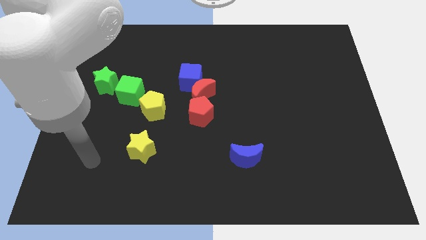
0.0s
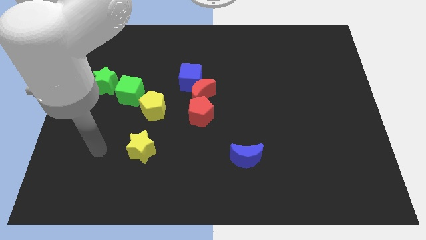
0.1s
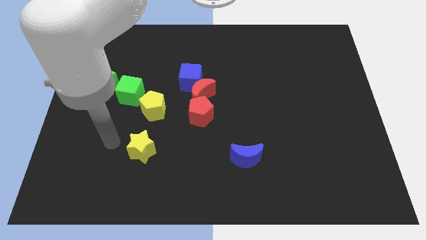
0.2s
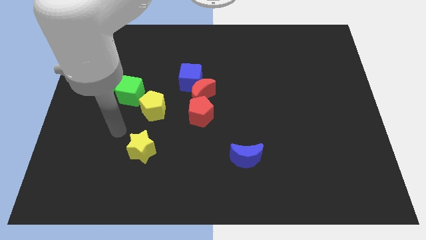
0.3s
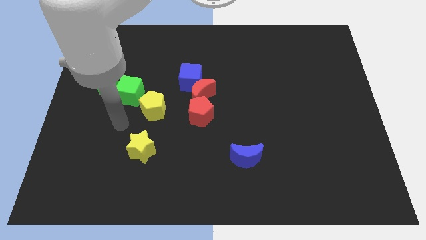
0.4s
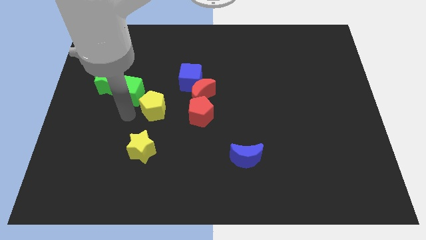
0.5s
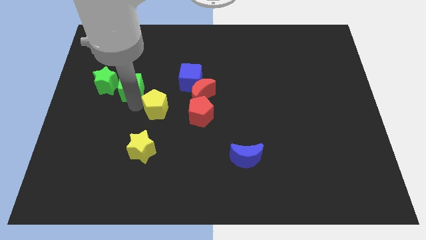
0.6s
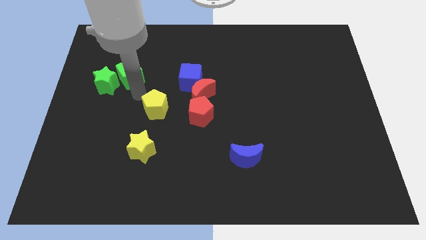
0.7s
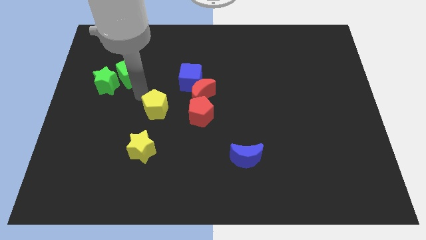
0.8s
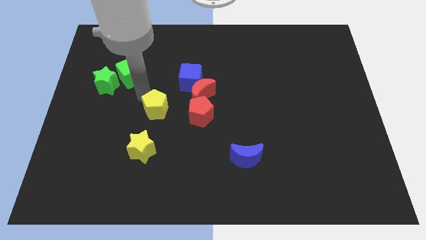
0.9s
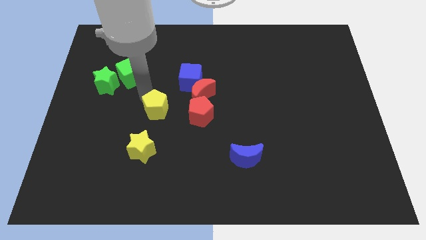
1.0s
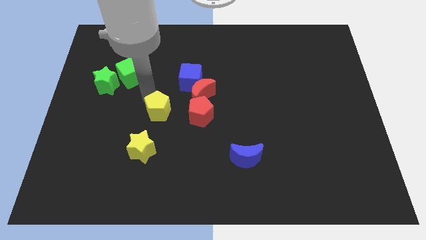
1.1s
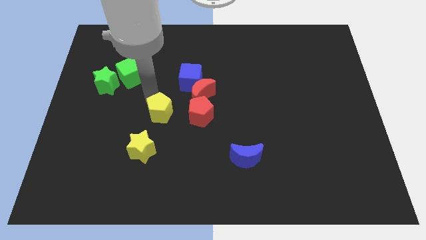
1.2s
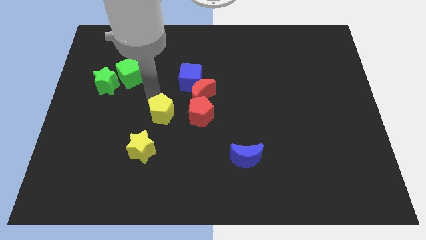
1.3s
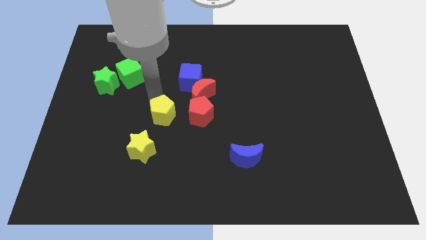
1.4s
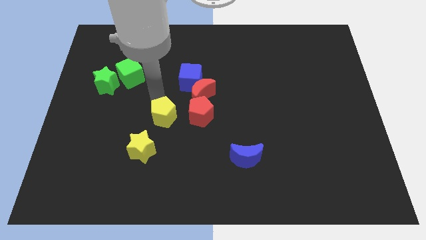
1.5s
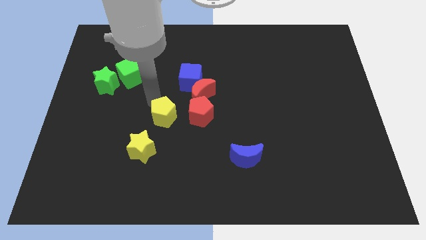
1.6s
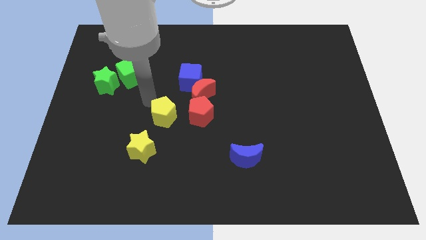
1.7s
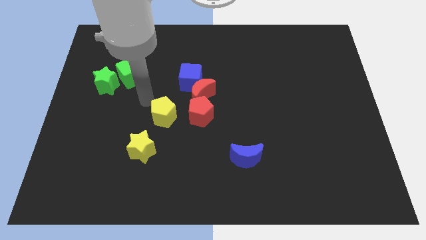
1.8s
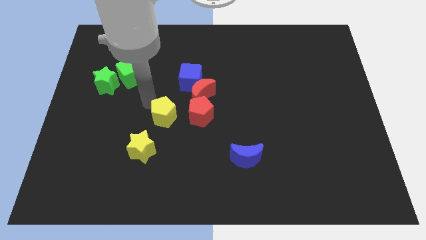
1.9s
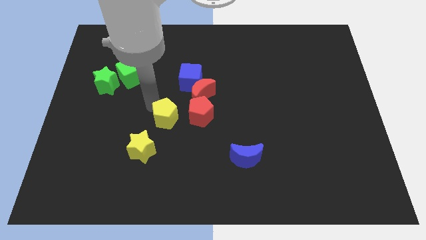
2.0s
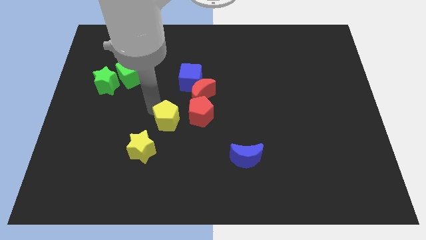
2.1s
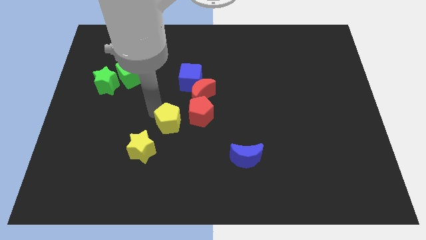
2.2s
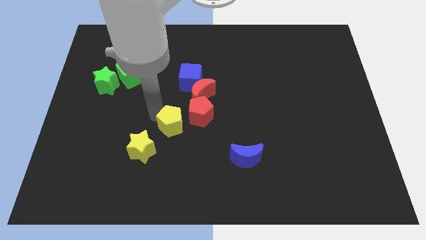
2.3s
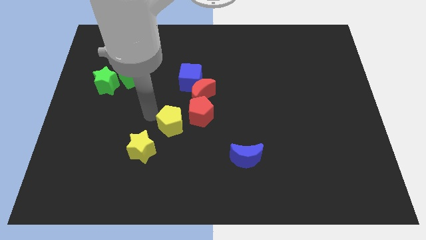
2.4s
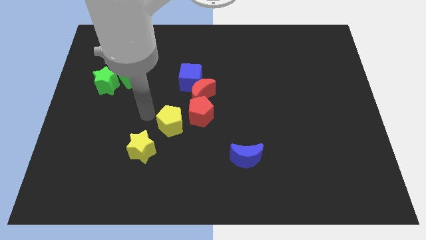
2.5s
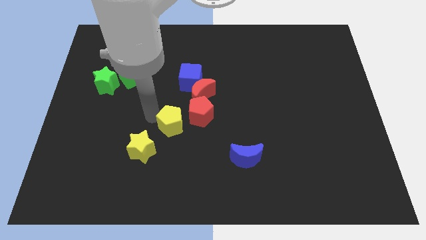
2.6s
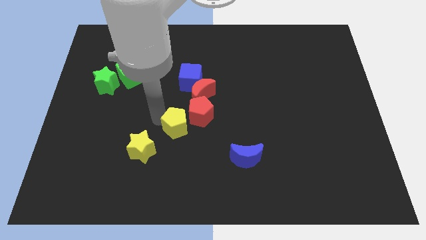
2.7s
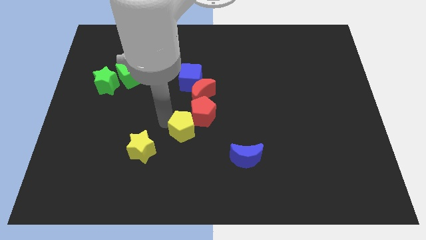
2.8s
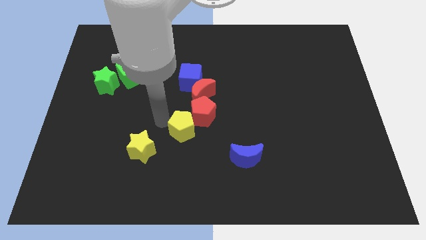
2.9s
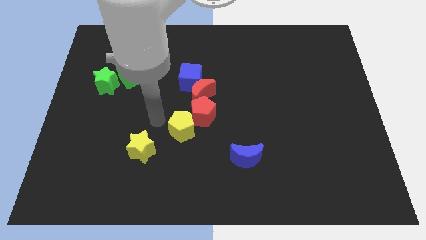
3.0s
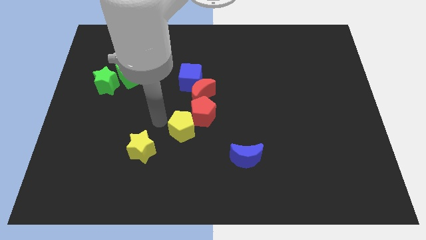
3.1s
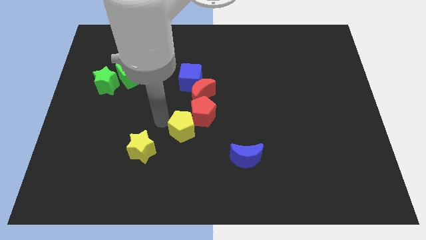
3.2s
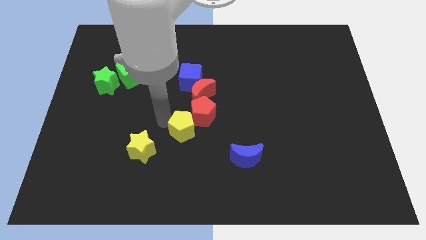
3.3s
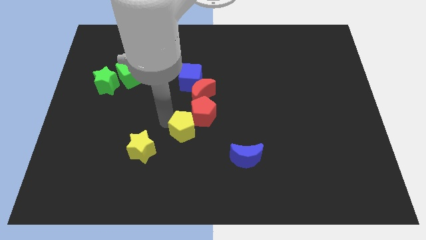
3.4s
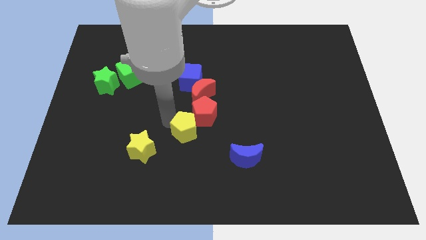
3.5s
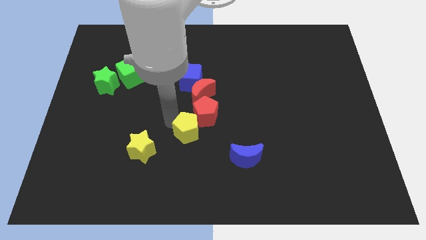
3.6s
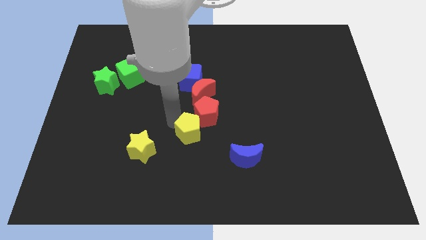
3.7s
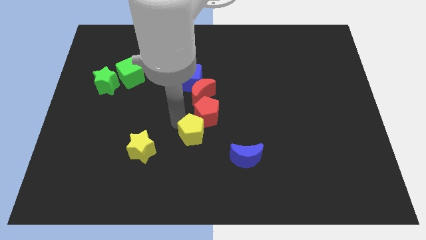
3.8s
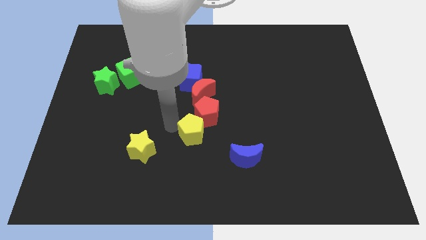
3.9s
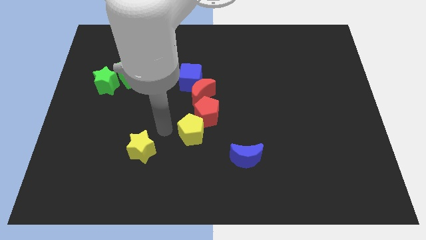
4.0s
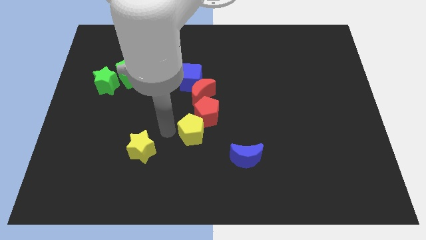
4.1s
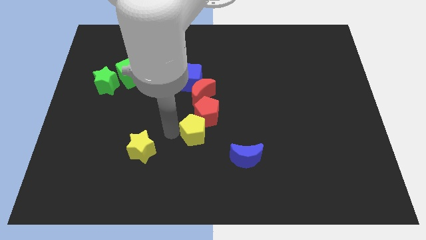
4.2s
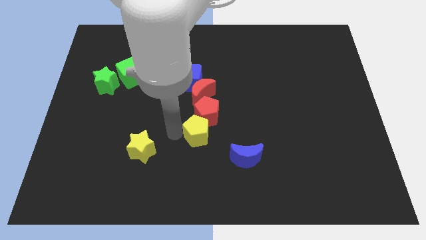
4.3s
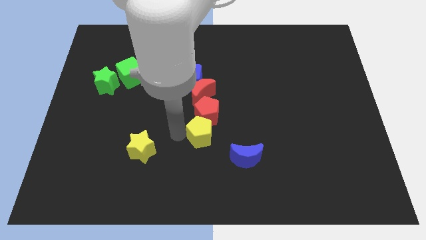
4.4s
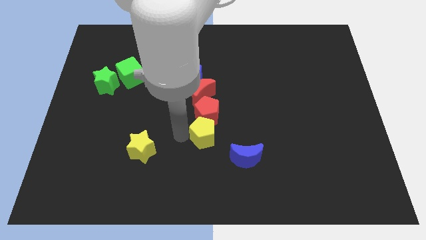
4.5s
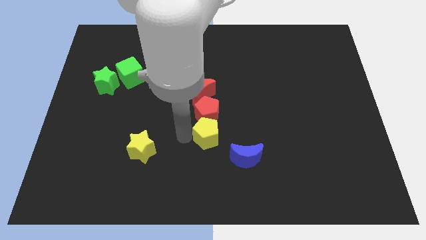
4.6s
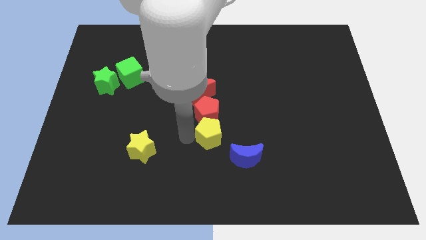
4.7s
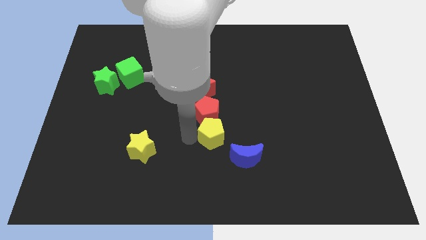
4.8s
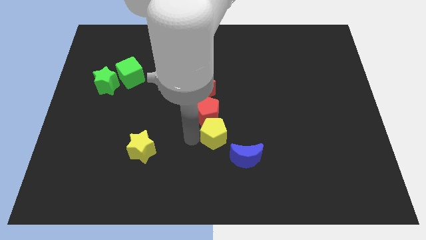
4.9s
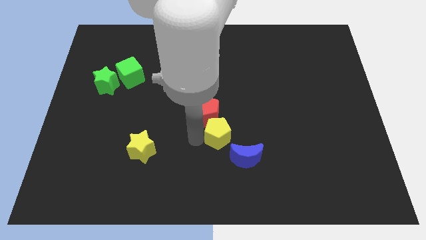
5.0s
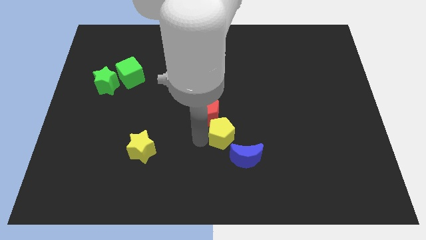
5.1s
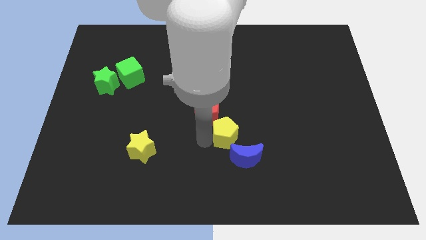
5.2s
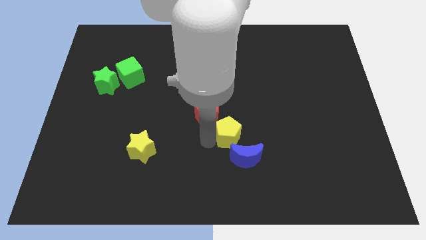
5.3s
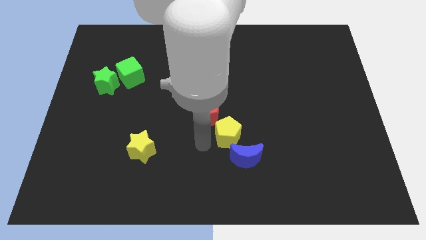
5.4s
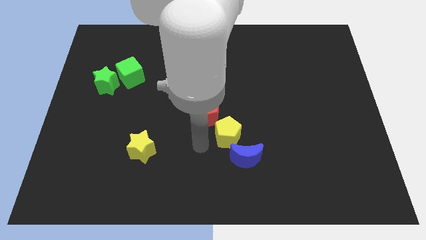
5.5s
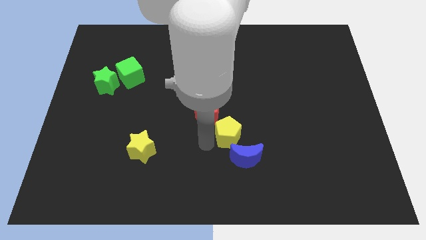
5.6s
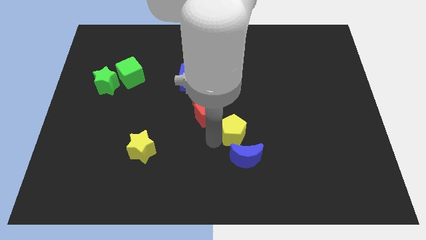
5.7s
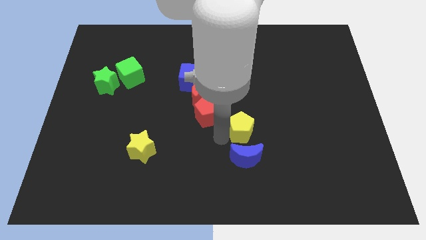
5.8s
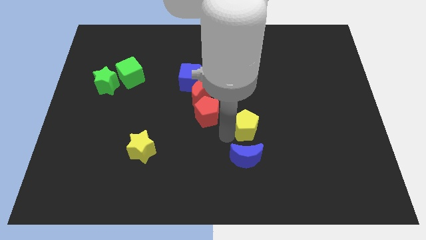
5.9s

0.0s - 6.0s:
push the yellow pentagon to the right

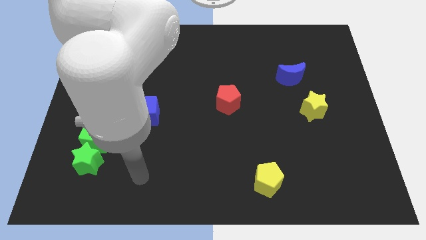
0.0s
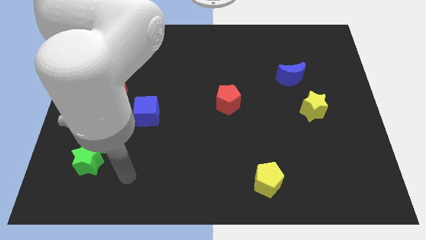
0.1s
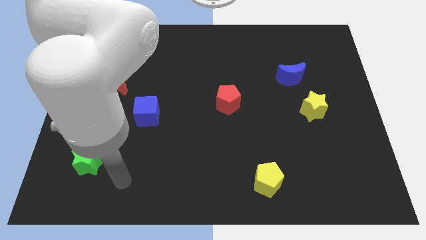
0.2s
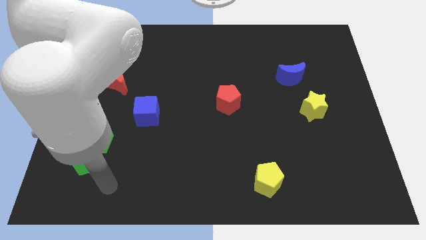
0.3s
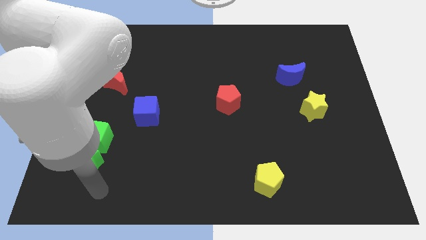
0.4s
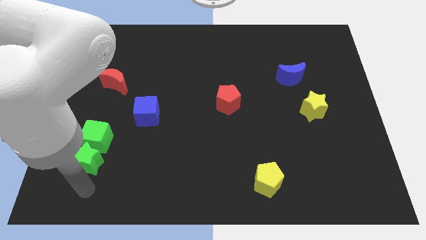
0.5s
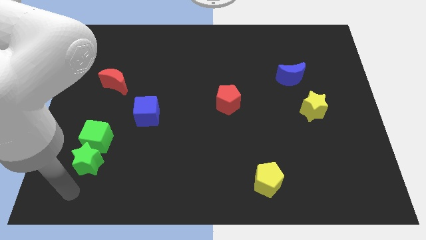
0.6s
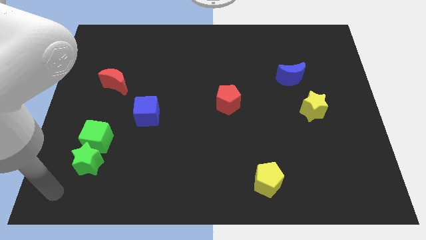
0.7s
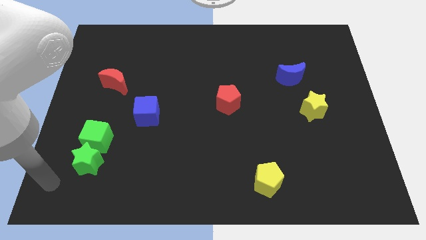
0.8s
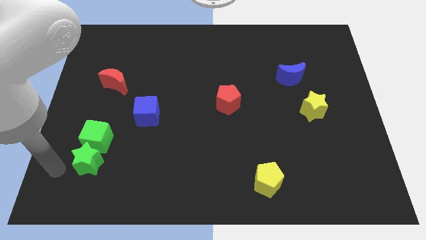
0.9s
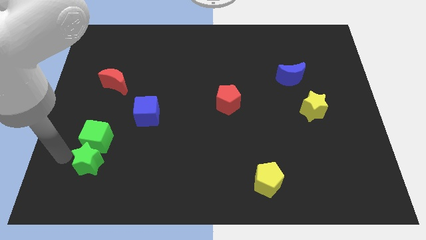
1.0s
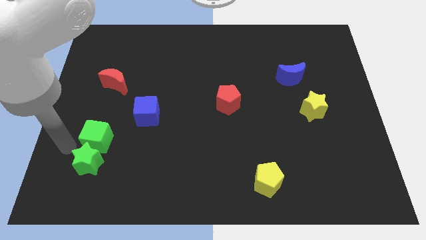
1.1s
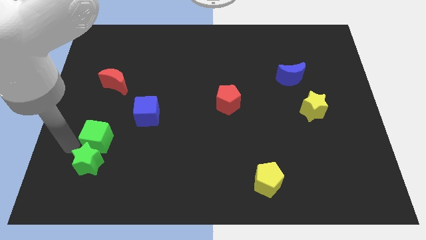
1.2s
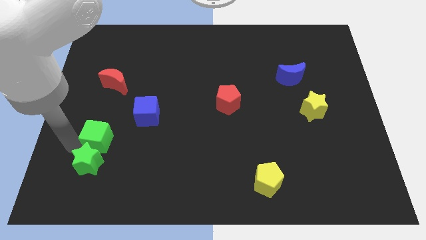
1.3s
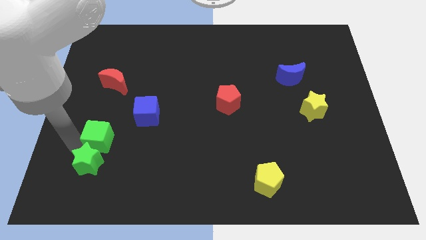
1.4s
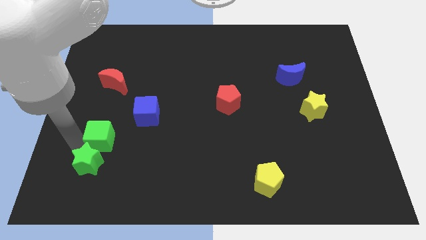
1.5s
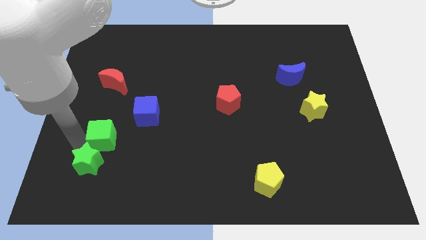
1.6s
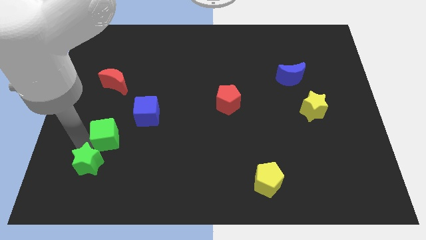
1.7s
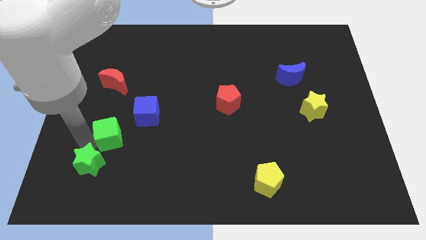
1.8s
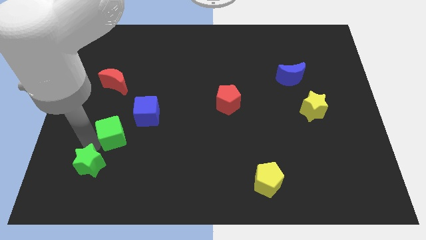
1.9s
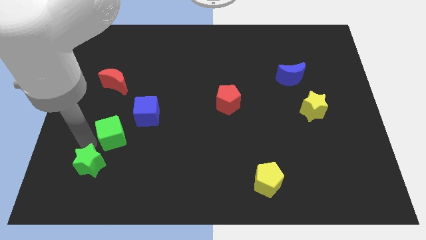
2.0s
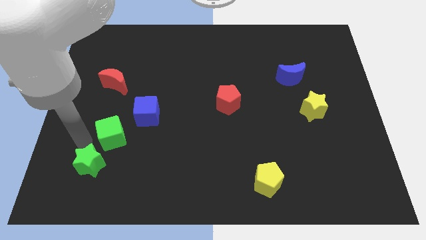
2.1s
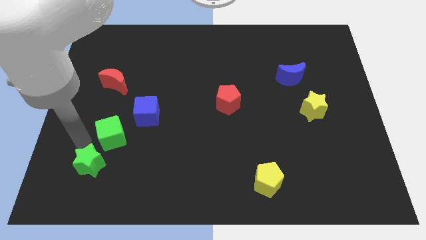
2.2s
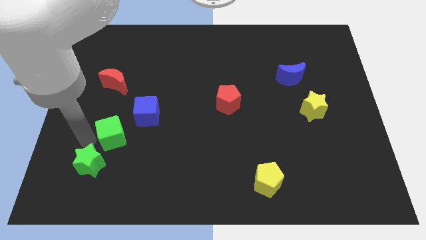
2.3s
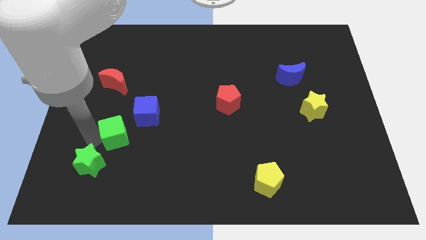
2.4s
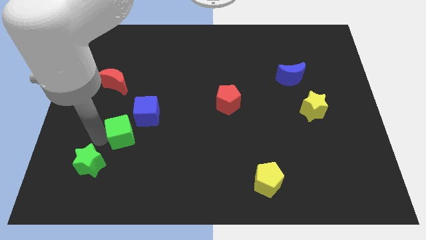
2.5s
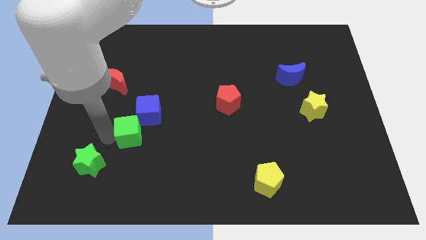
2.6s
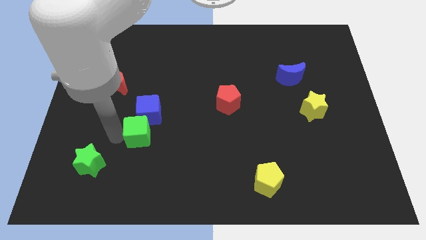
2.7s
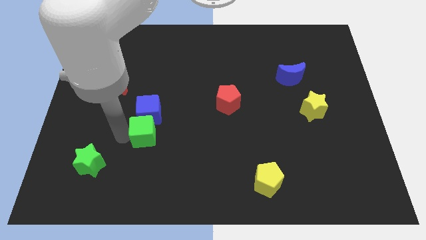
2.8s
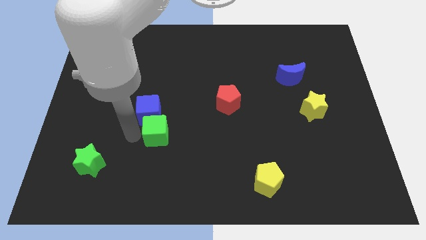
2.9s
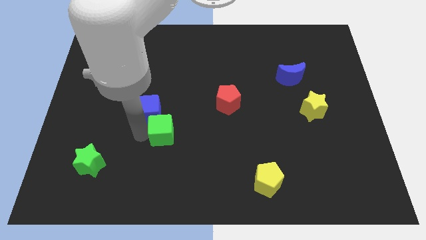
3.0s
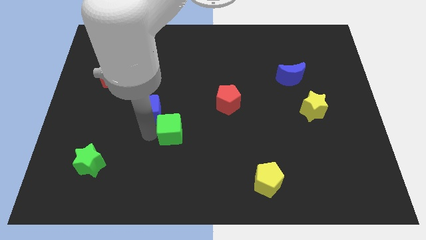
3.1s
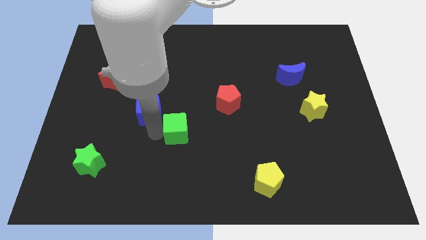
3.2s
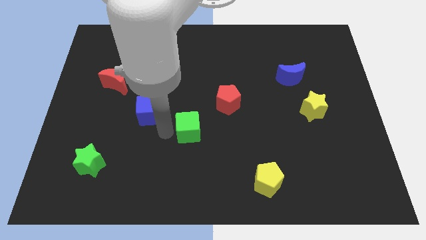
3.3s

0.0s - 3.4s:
slide the green cube to the right
